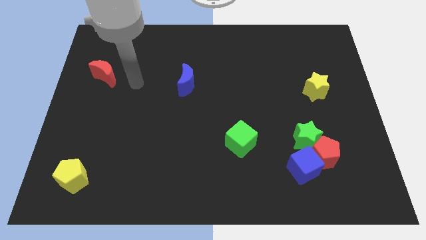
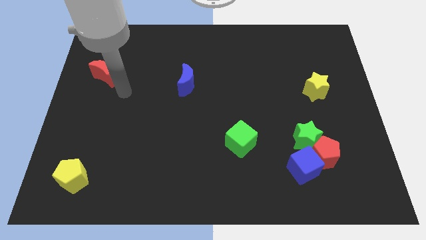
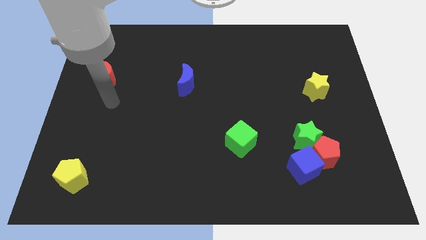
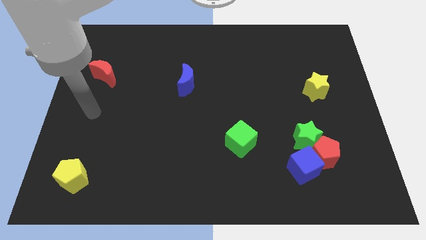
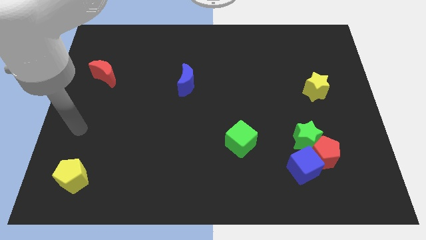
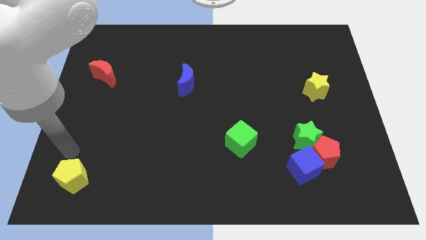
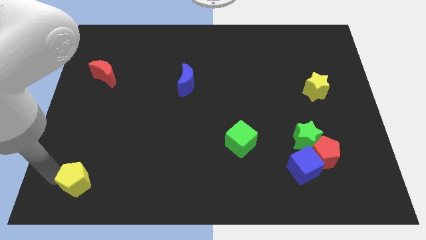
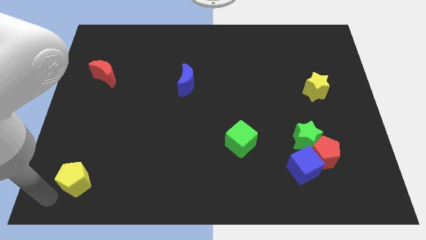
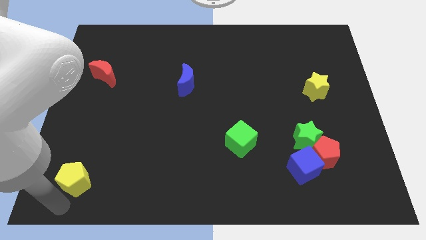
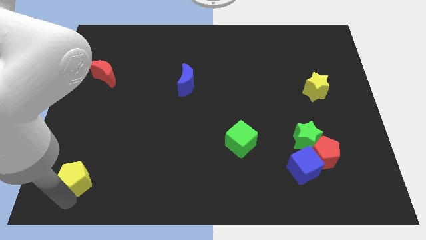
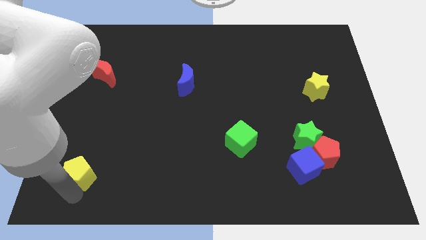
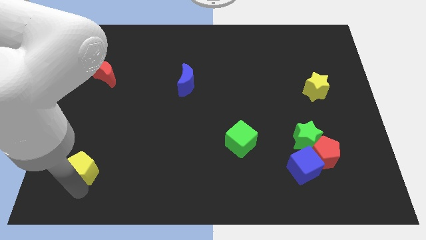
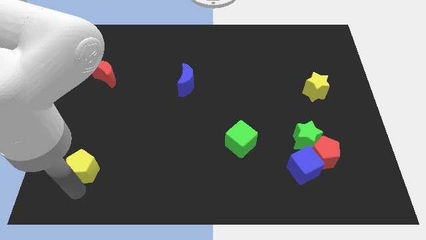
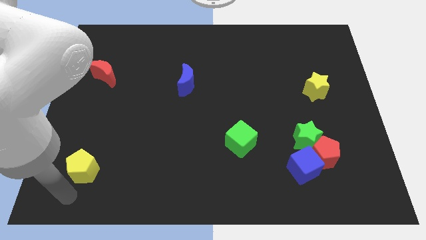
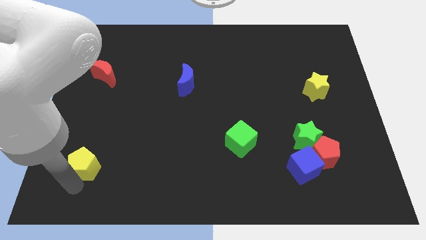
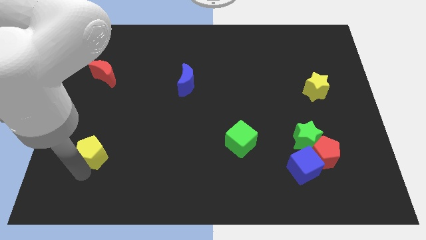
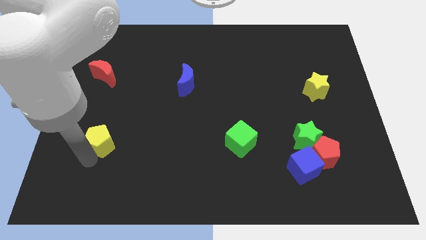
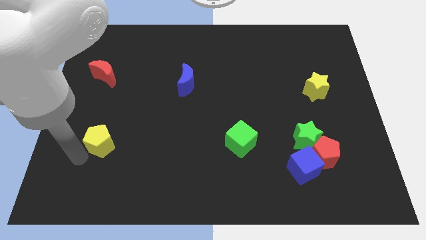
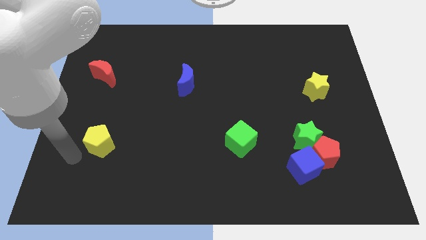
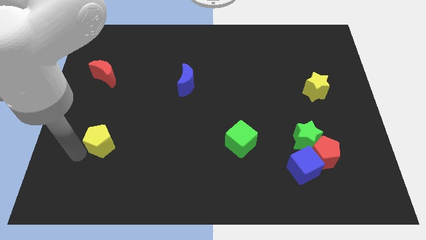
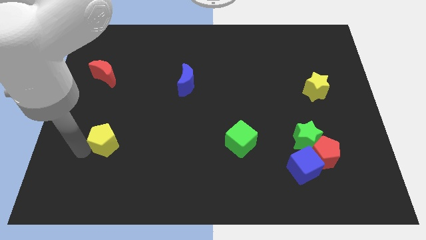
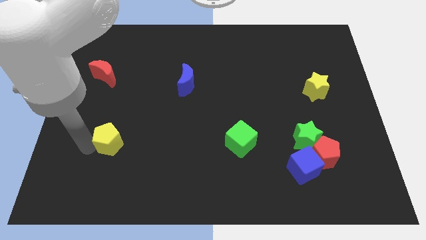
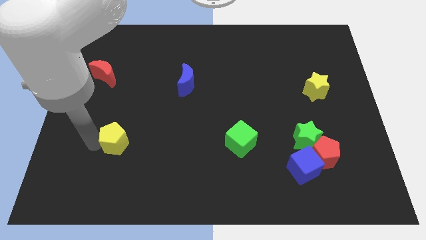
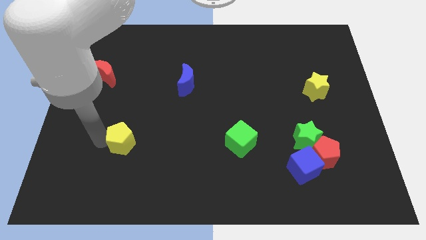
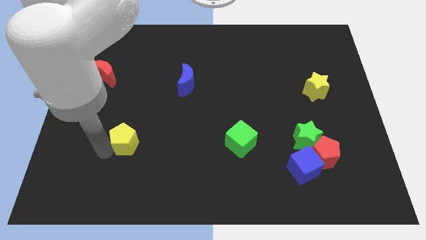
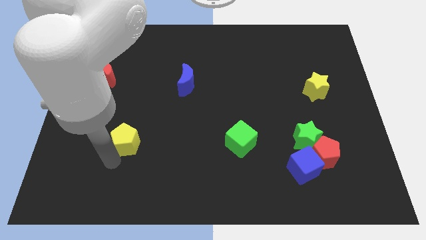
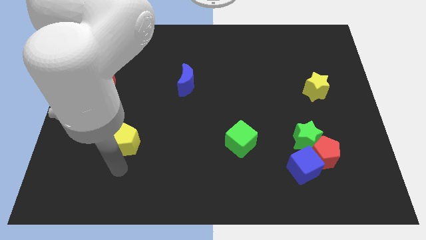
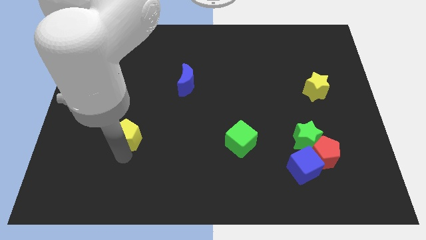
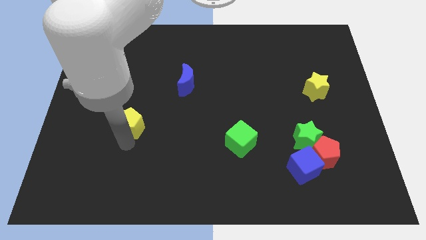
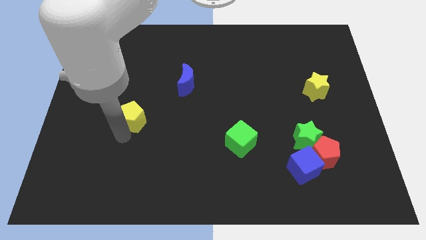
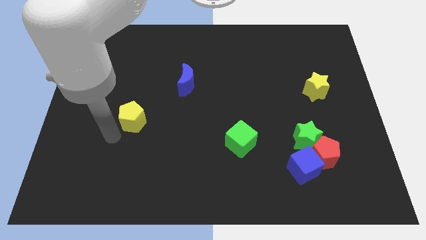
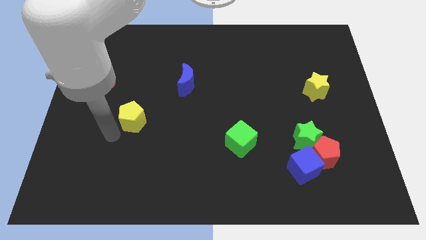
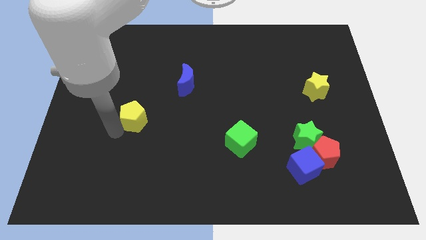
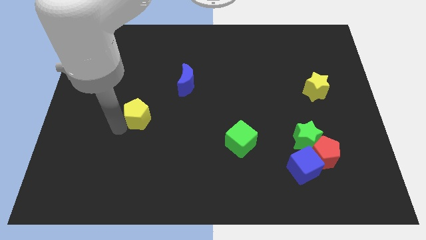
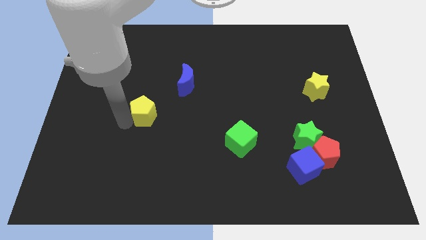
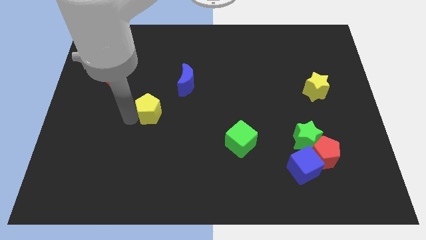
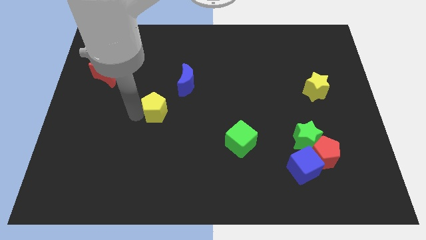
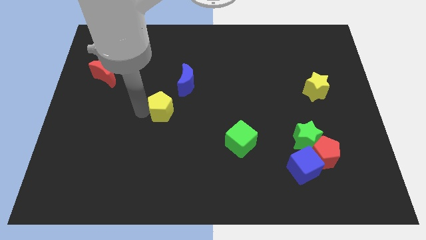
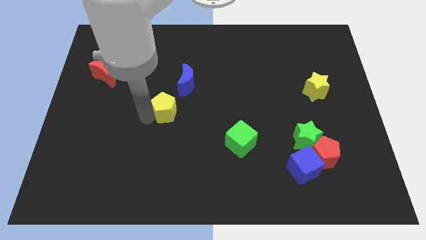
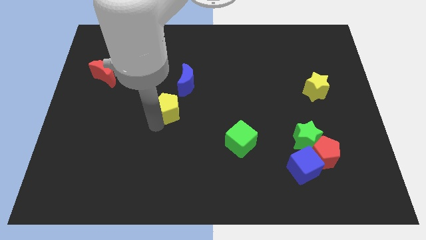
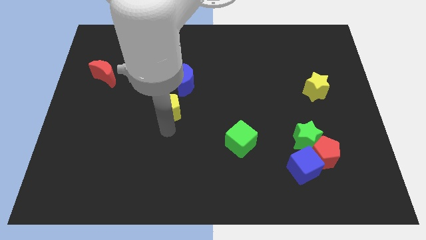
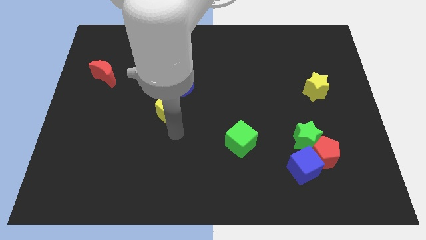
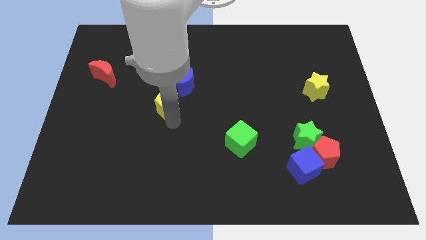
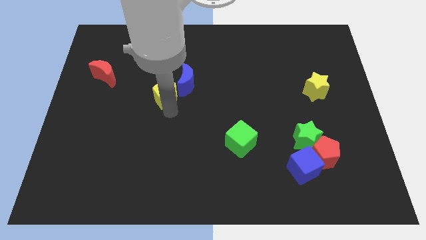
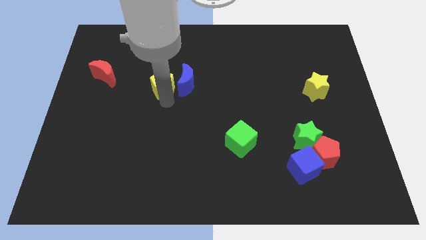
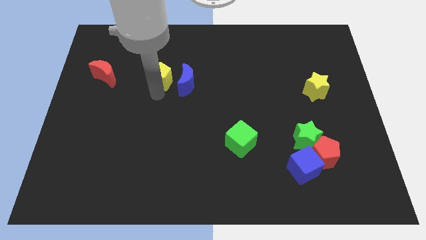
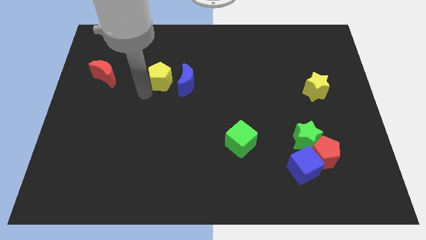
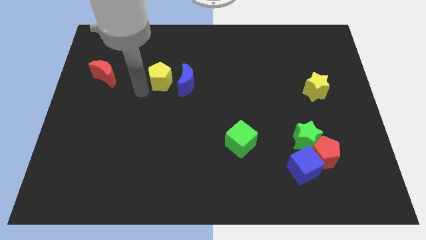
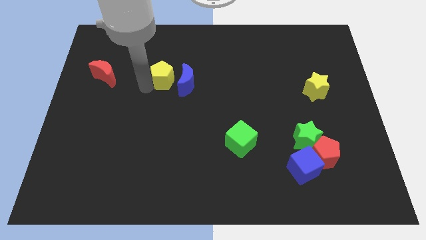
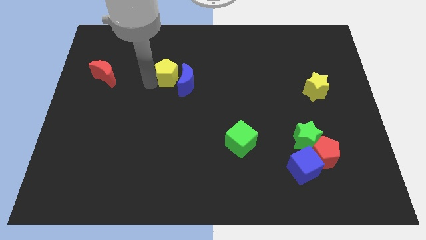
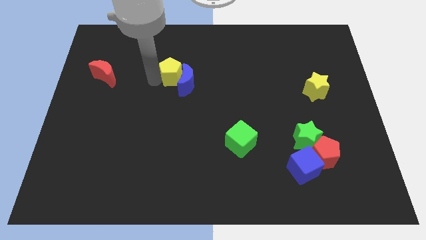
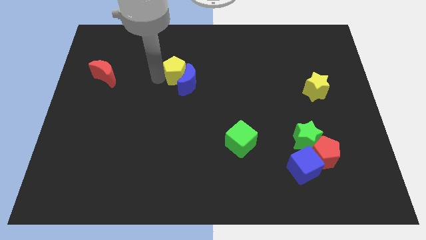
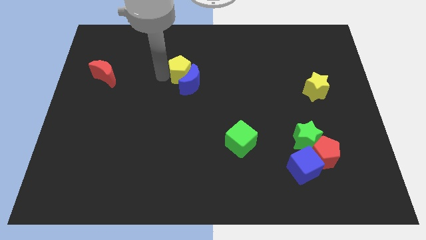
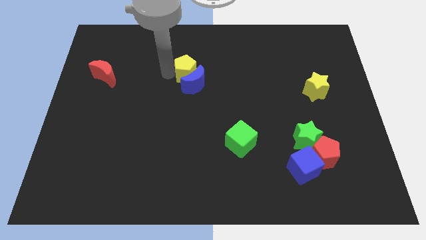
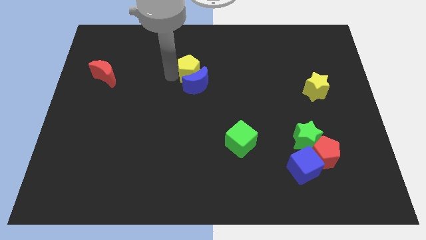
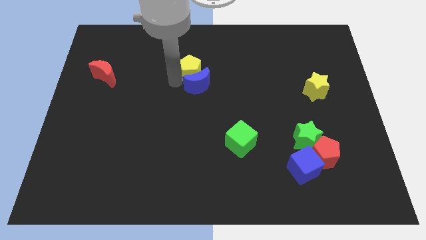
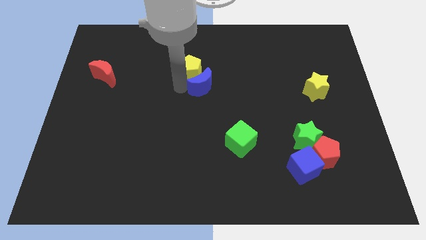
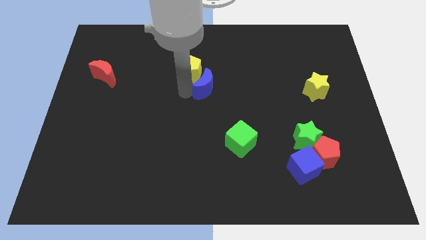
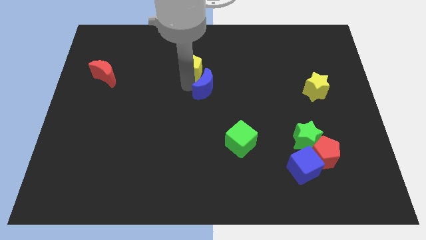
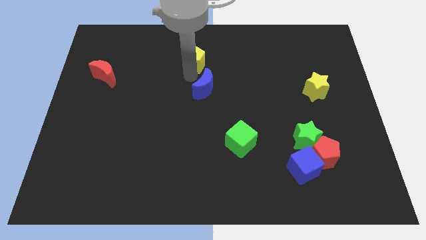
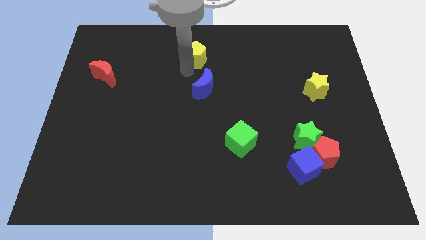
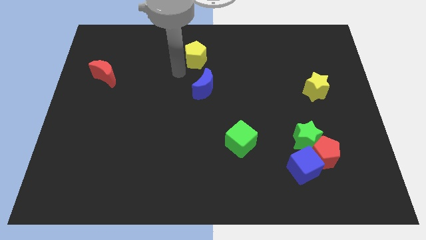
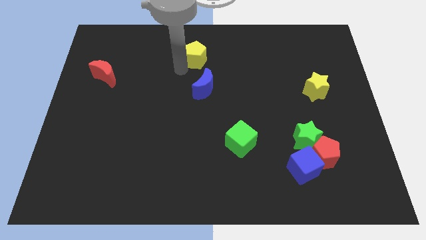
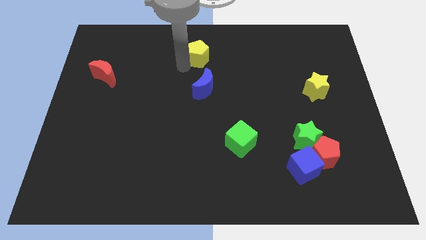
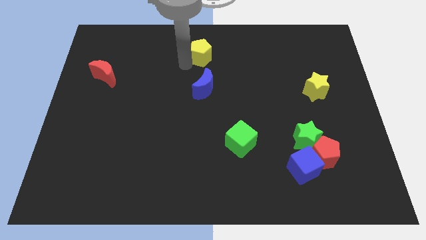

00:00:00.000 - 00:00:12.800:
slide the yellow pentagon to the top

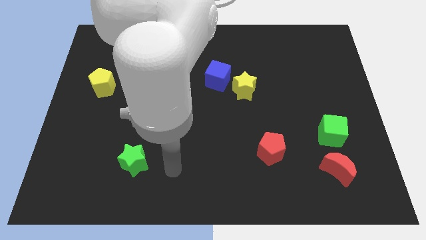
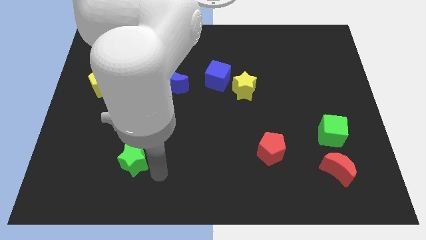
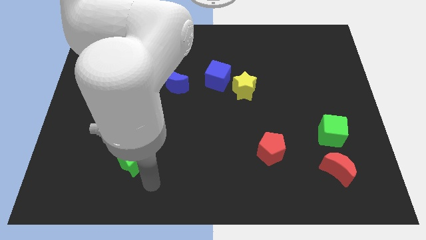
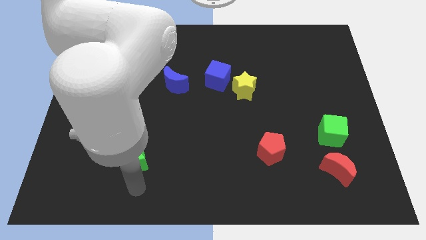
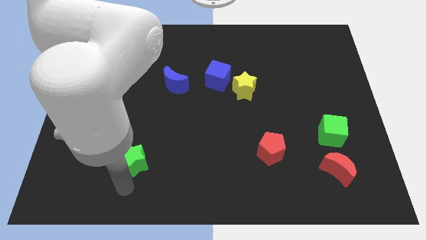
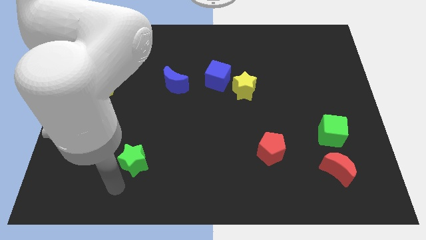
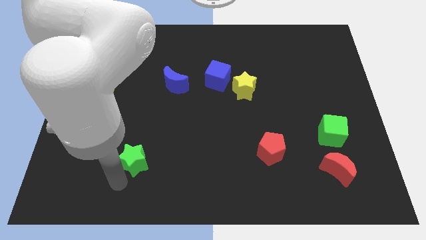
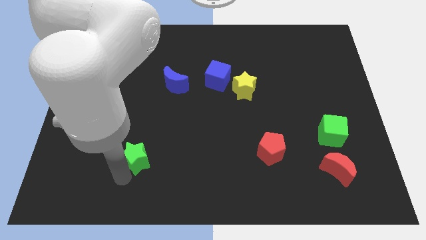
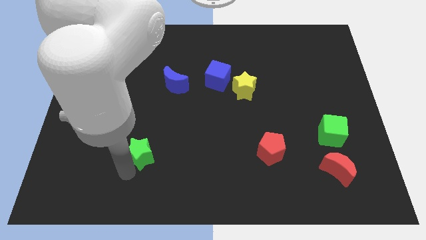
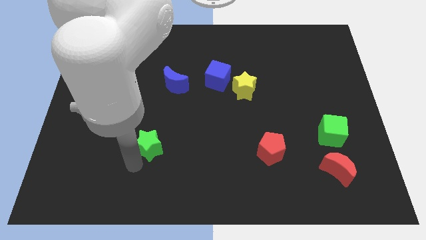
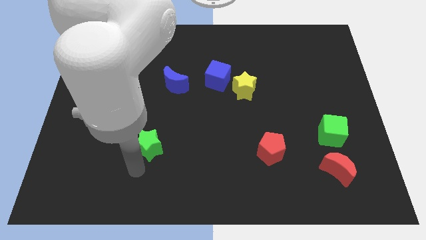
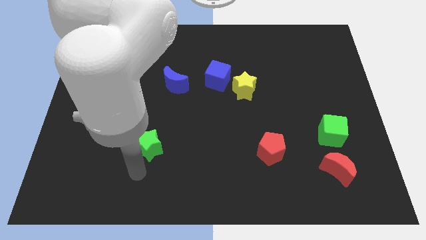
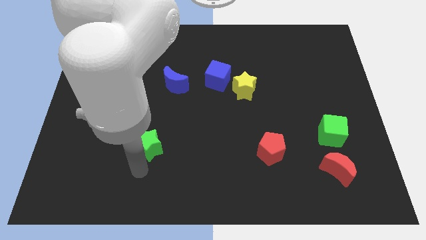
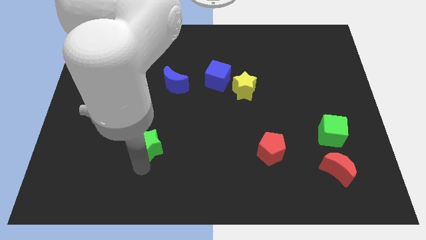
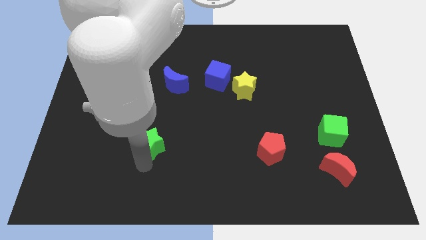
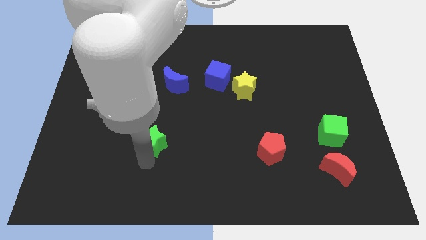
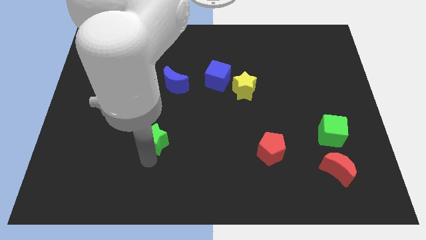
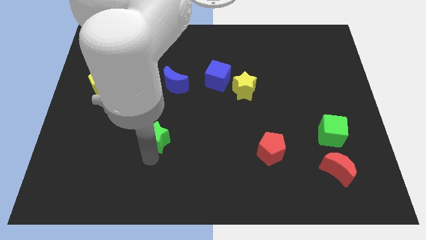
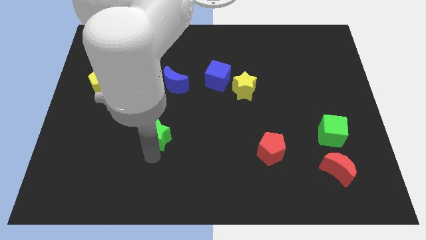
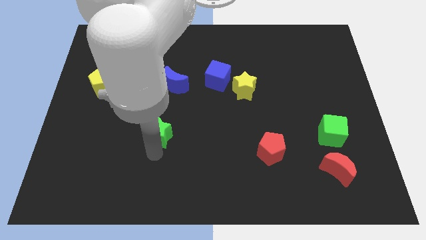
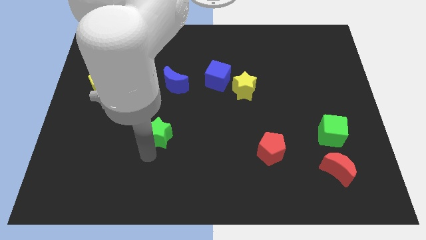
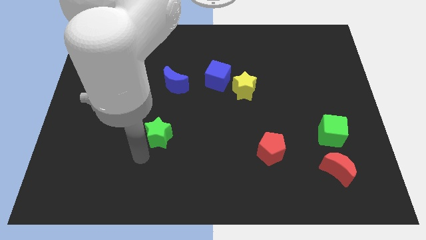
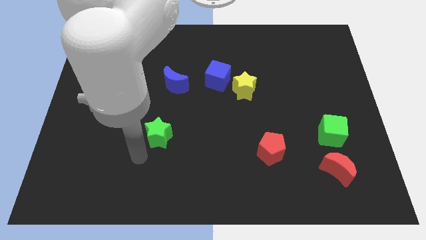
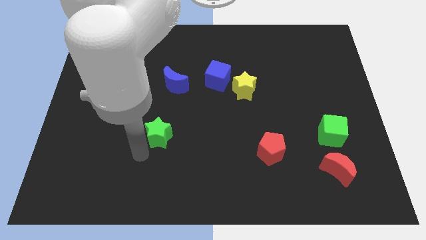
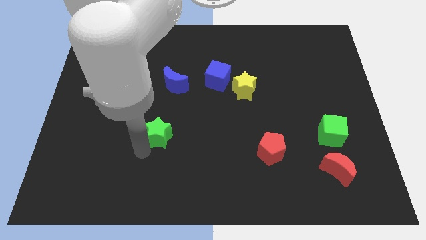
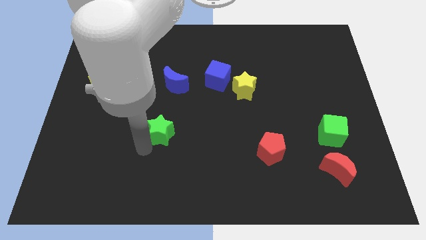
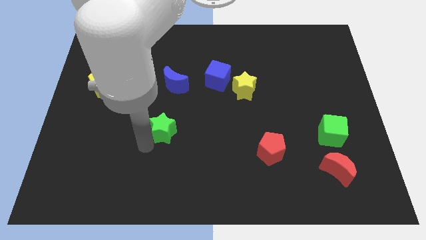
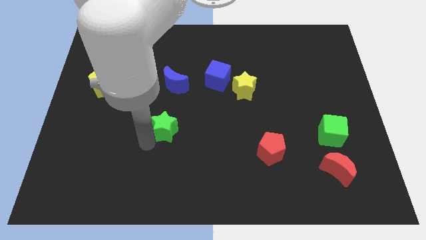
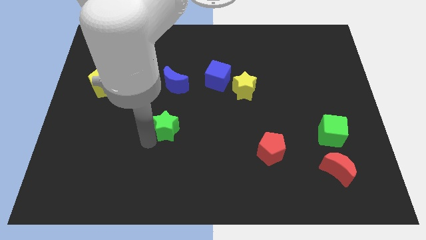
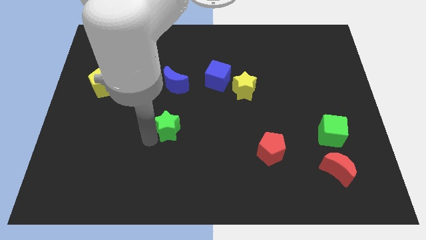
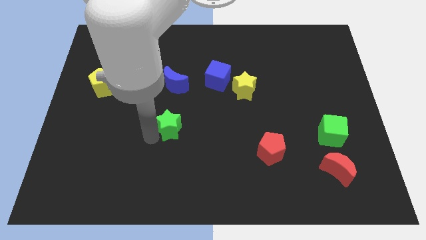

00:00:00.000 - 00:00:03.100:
slide the green star to the center of the board
